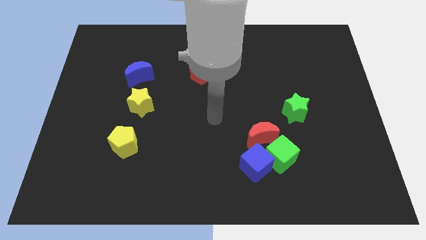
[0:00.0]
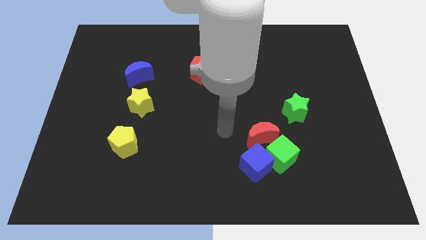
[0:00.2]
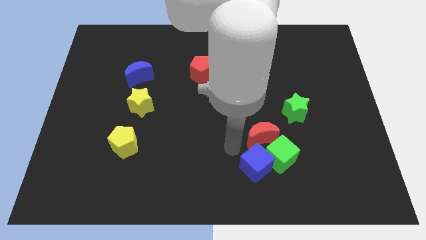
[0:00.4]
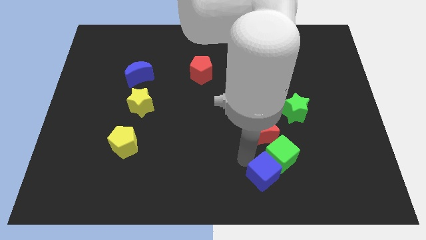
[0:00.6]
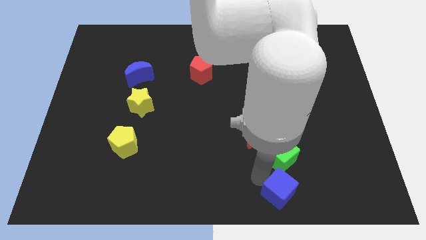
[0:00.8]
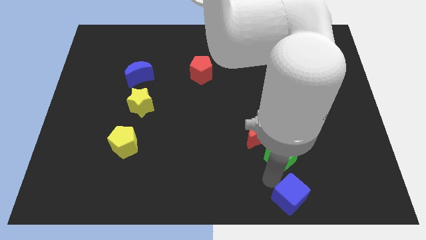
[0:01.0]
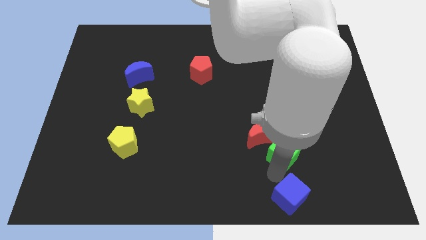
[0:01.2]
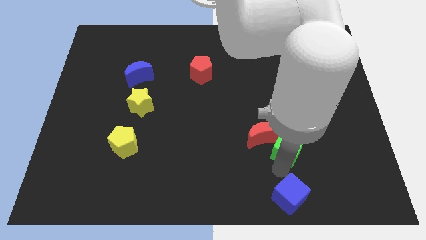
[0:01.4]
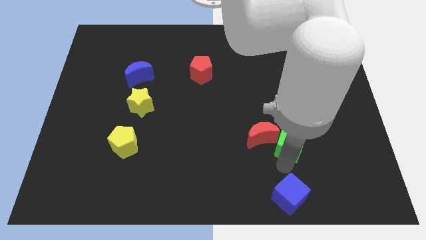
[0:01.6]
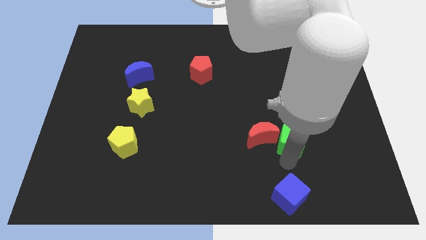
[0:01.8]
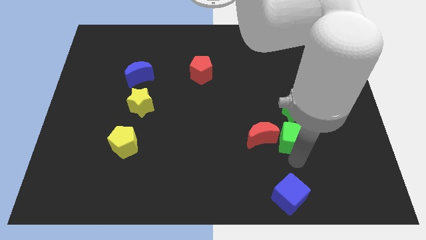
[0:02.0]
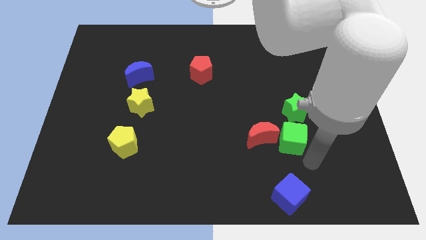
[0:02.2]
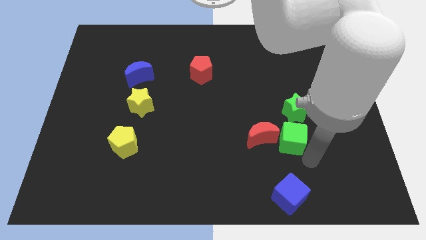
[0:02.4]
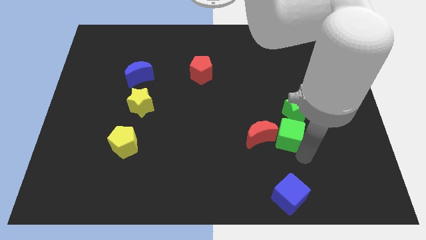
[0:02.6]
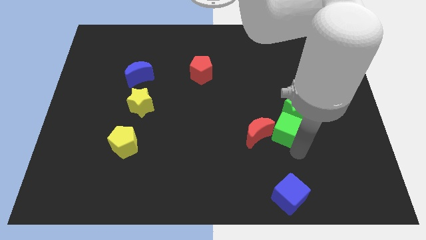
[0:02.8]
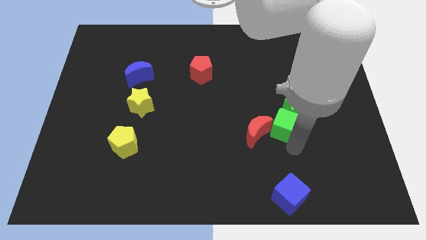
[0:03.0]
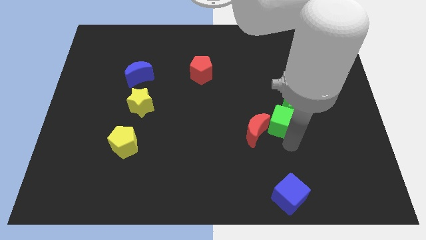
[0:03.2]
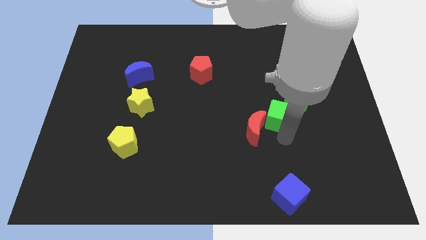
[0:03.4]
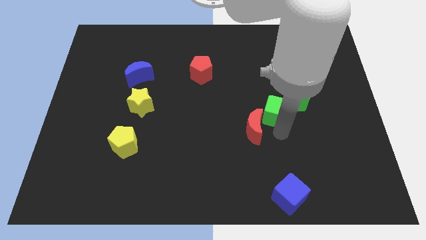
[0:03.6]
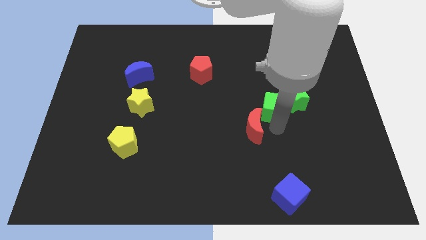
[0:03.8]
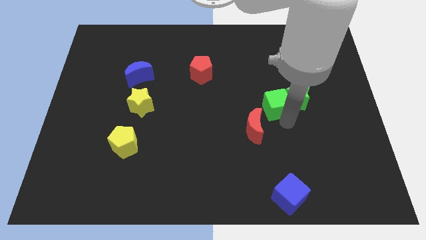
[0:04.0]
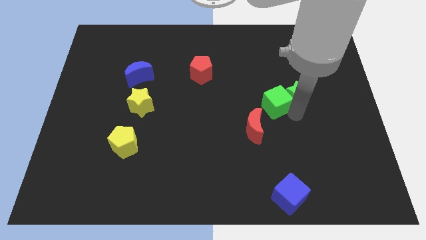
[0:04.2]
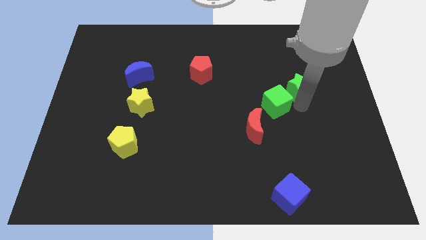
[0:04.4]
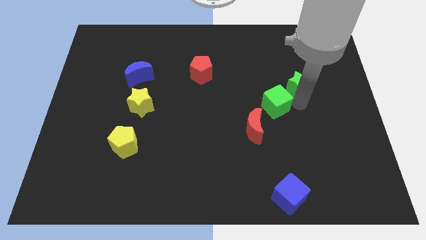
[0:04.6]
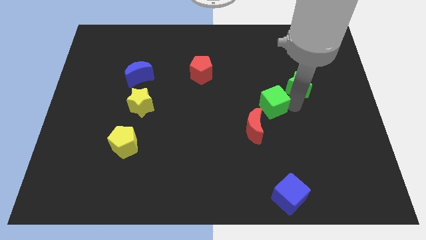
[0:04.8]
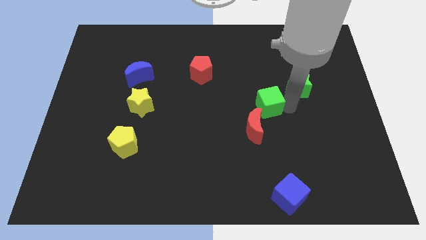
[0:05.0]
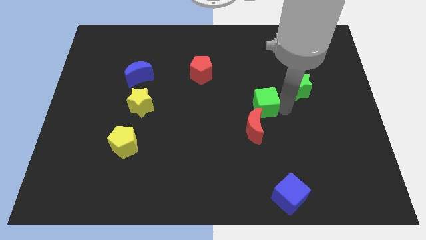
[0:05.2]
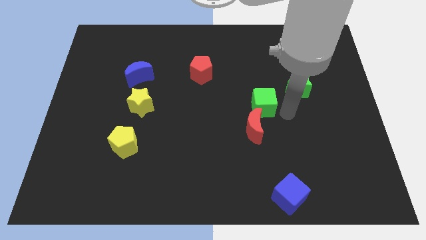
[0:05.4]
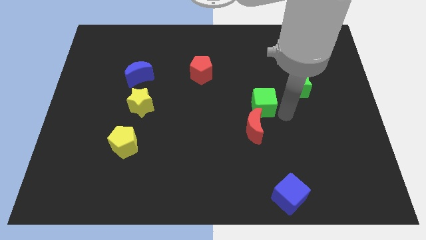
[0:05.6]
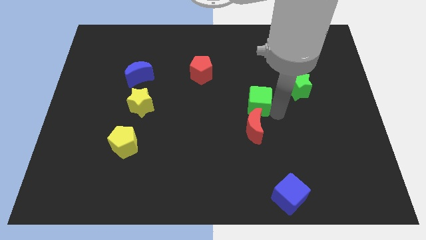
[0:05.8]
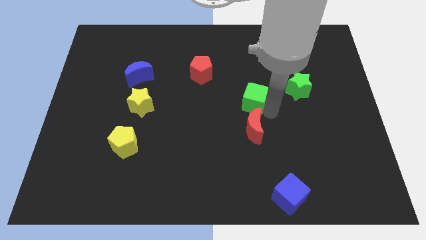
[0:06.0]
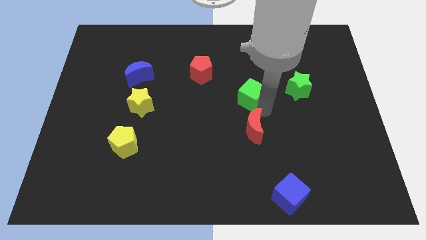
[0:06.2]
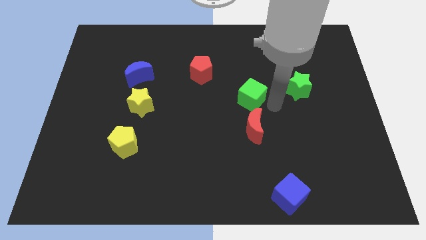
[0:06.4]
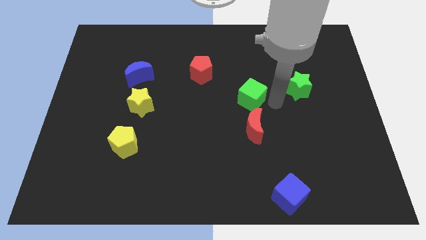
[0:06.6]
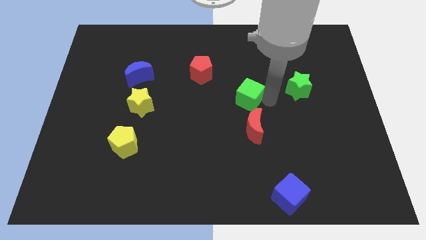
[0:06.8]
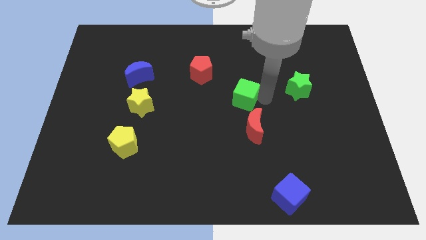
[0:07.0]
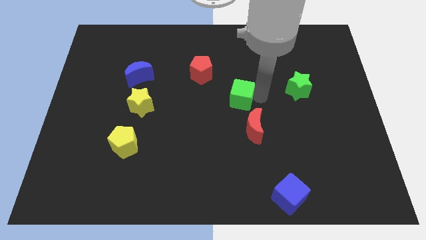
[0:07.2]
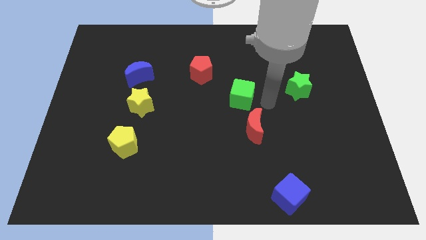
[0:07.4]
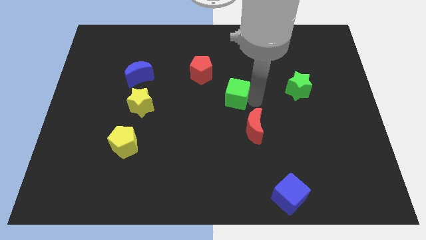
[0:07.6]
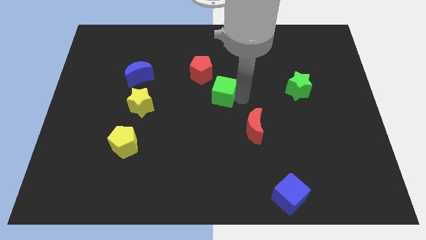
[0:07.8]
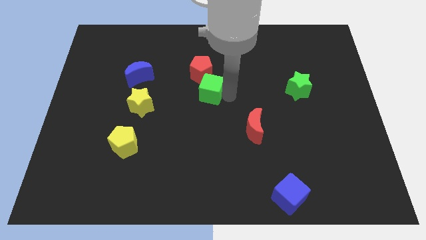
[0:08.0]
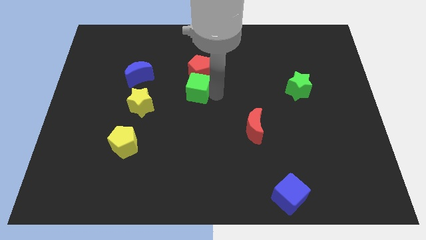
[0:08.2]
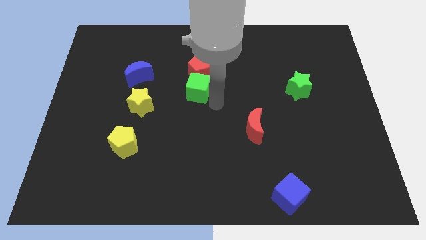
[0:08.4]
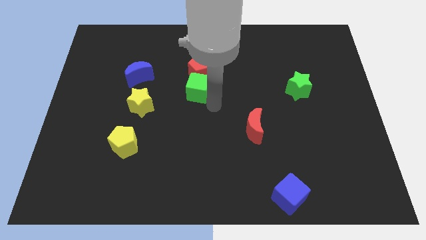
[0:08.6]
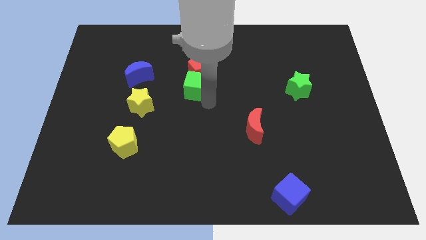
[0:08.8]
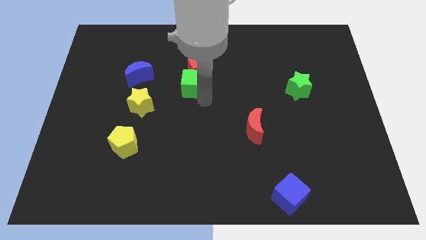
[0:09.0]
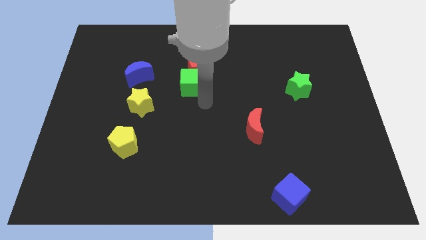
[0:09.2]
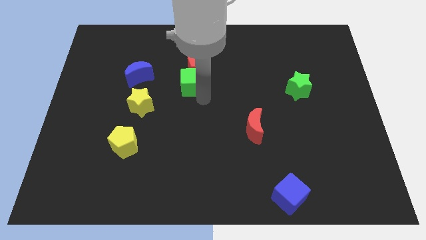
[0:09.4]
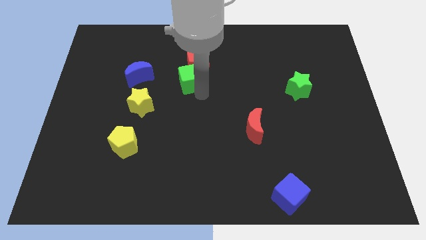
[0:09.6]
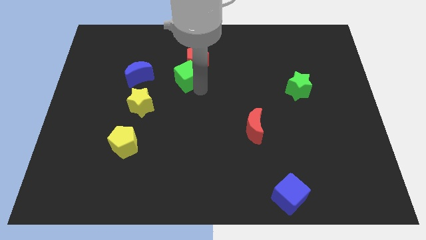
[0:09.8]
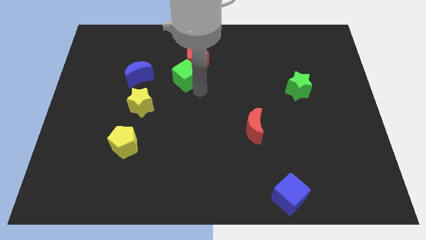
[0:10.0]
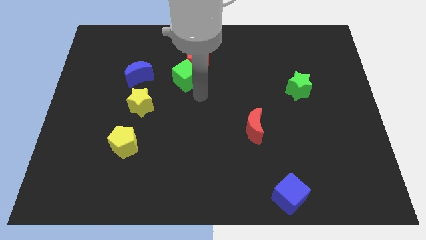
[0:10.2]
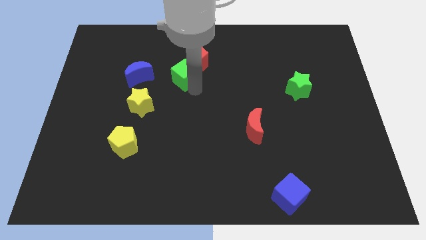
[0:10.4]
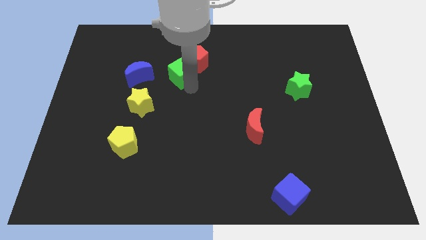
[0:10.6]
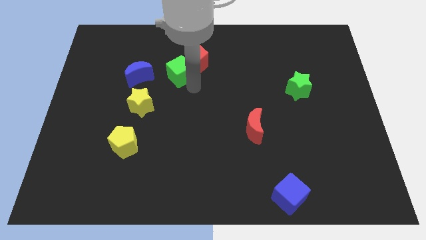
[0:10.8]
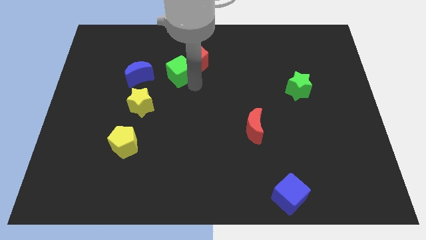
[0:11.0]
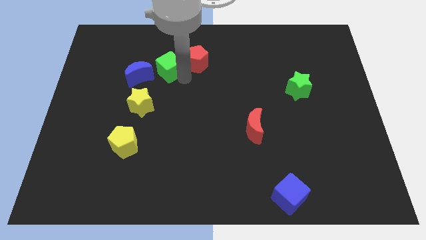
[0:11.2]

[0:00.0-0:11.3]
put the green cube diagonally up and to the right of the blue moon

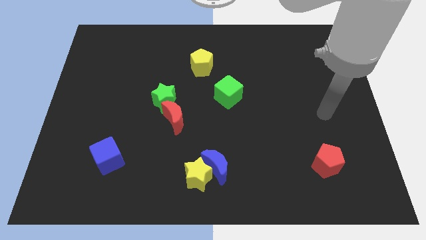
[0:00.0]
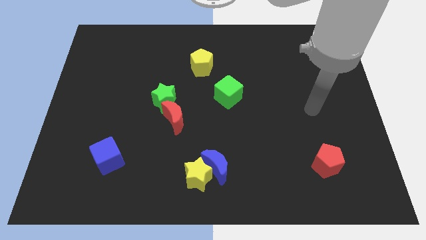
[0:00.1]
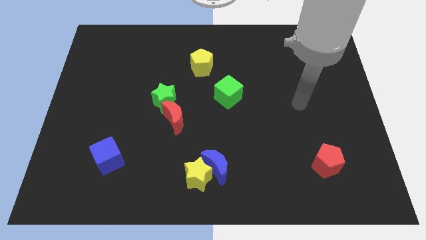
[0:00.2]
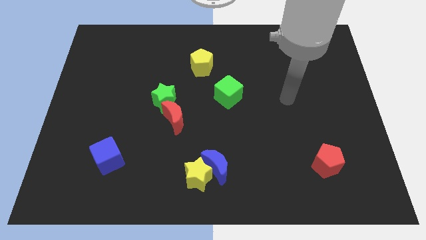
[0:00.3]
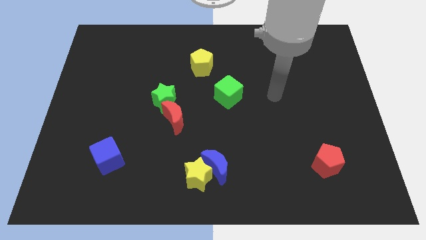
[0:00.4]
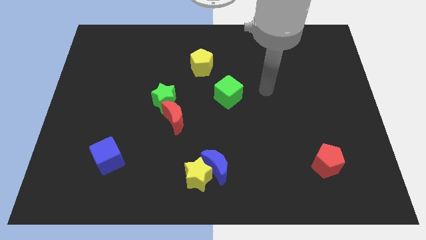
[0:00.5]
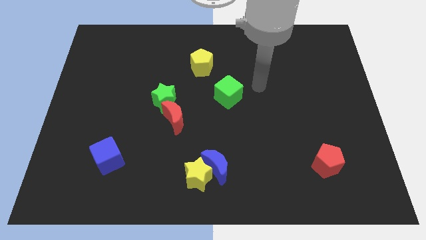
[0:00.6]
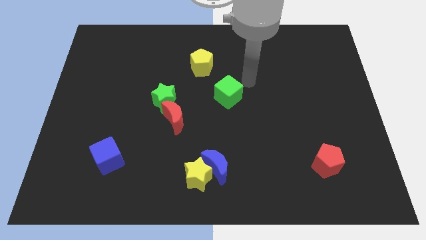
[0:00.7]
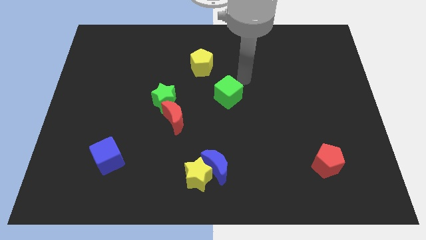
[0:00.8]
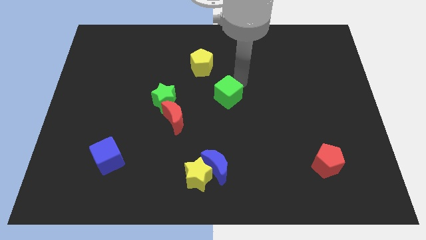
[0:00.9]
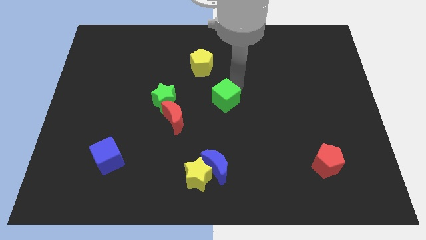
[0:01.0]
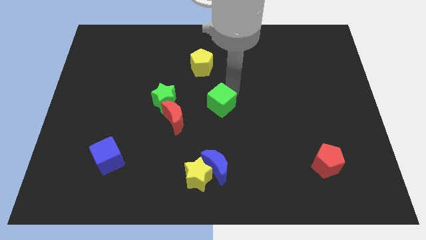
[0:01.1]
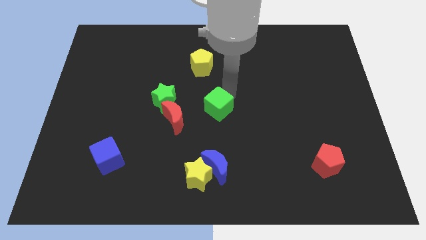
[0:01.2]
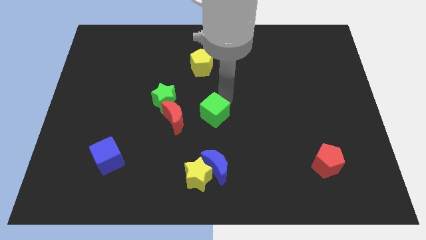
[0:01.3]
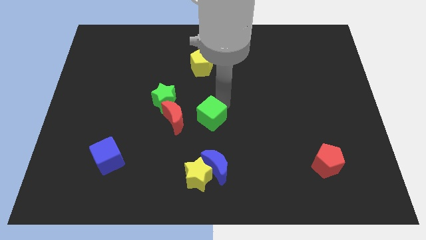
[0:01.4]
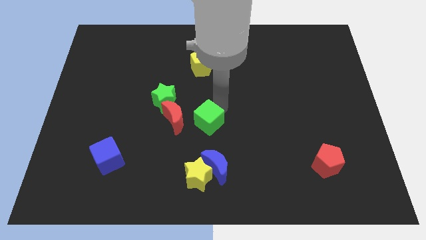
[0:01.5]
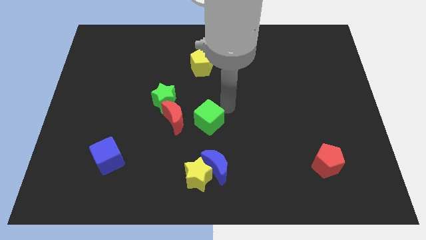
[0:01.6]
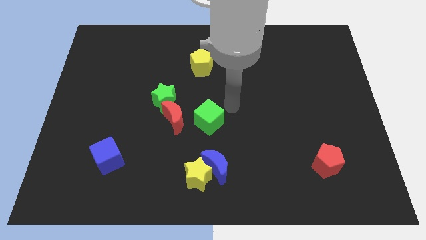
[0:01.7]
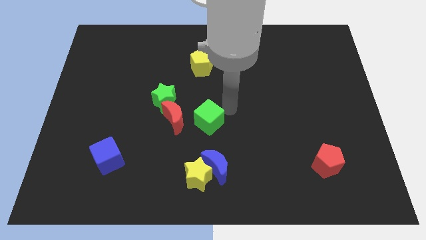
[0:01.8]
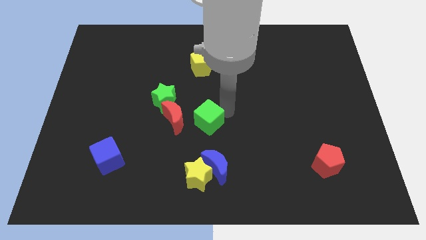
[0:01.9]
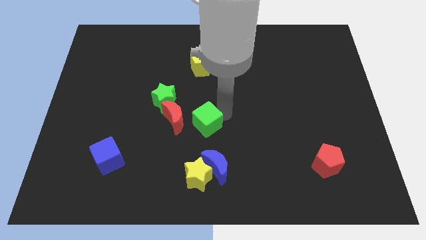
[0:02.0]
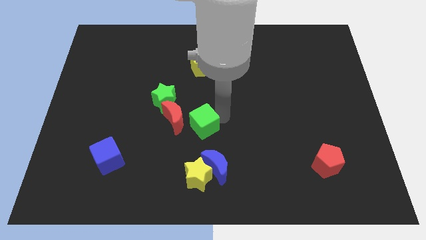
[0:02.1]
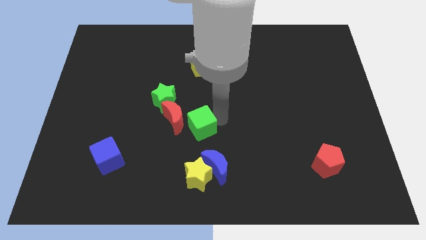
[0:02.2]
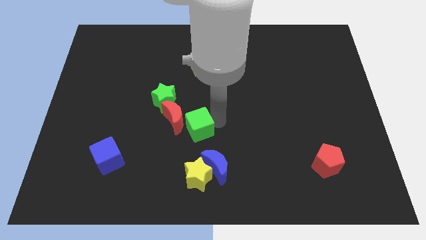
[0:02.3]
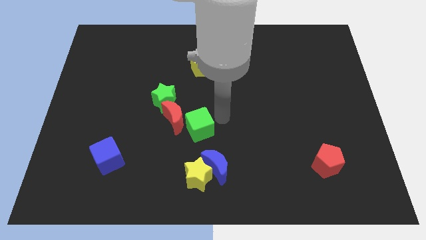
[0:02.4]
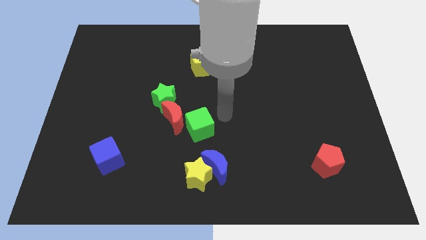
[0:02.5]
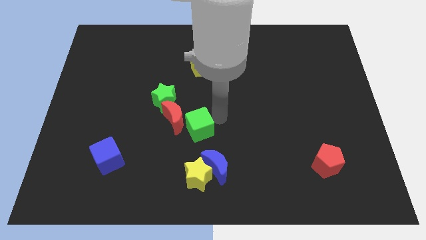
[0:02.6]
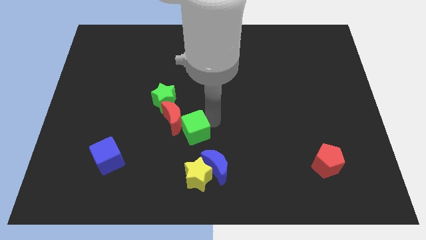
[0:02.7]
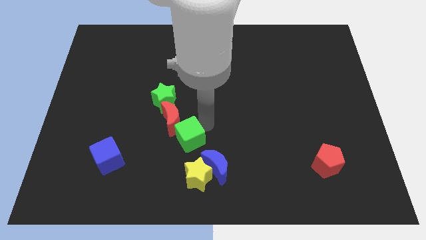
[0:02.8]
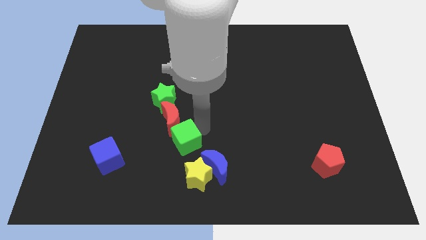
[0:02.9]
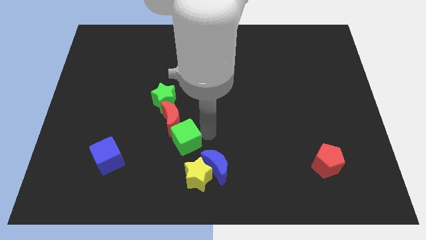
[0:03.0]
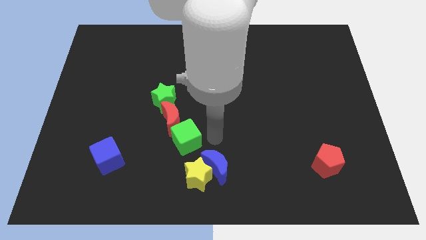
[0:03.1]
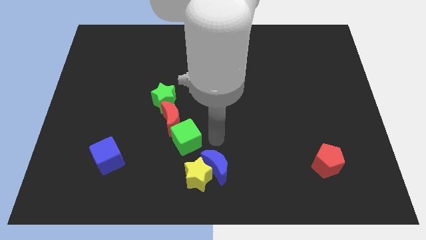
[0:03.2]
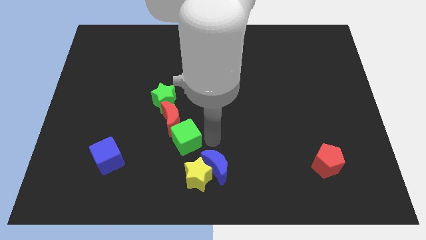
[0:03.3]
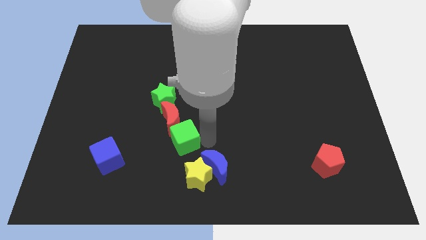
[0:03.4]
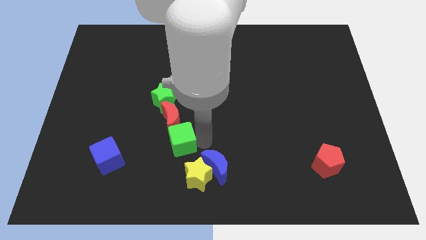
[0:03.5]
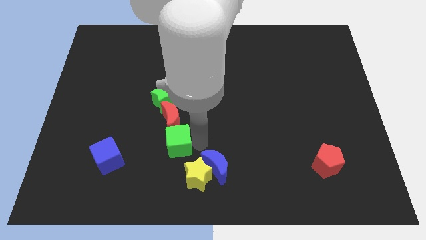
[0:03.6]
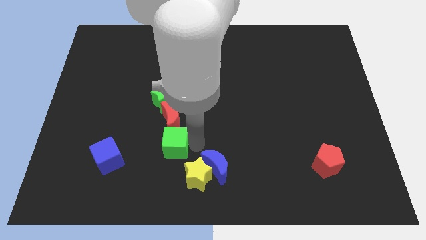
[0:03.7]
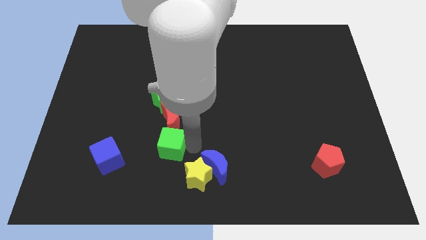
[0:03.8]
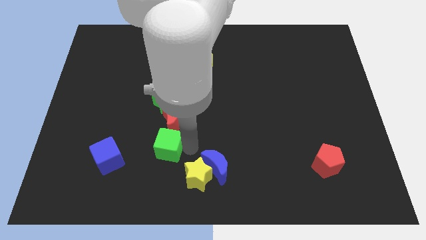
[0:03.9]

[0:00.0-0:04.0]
push the green cube to the bottom left of the red moon
